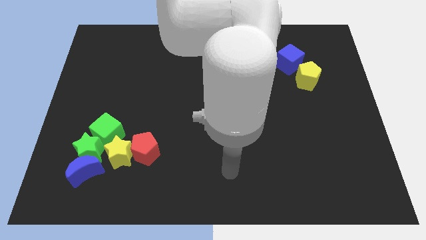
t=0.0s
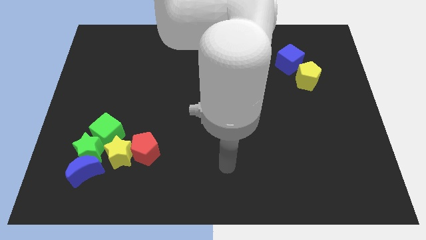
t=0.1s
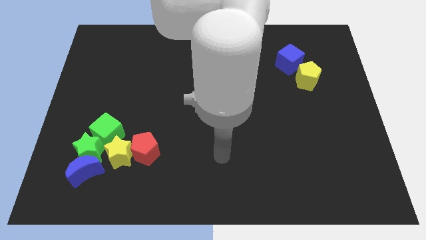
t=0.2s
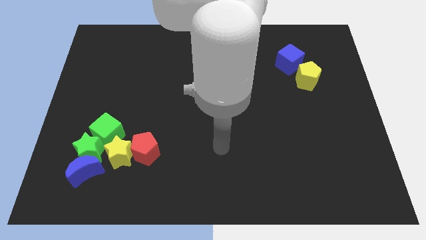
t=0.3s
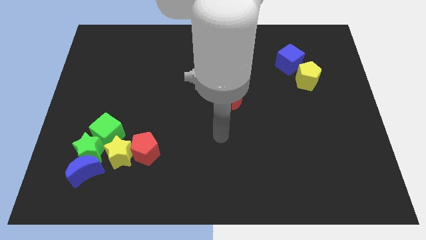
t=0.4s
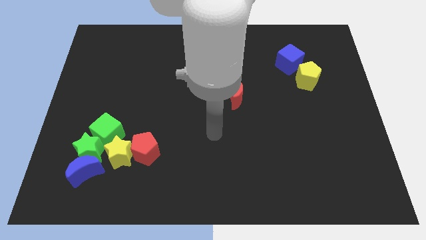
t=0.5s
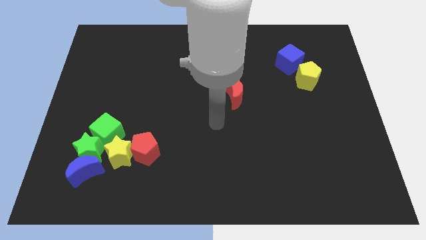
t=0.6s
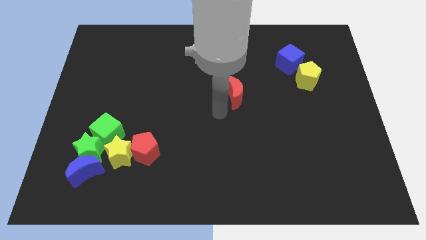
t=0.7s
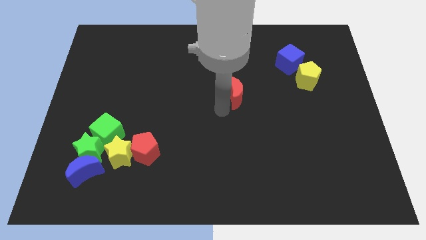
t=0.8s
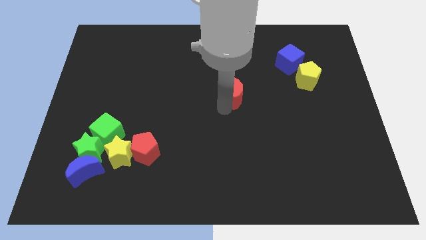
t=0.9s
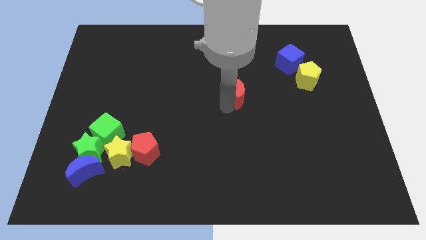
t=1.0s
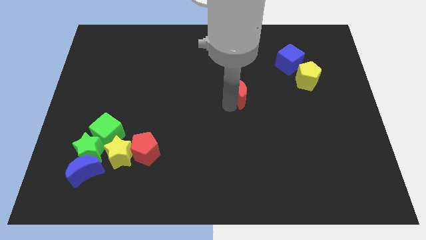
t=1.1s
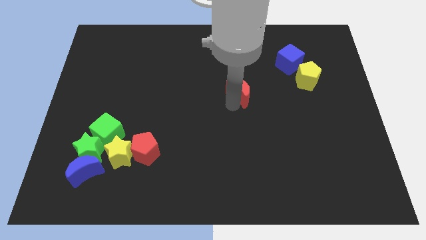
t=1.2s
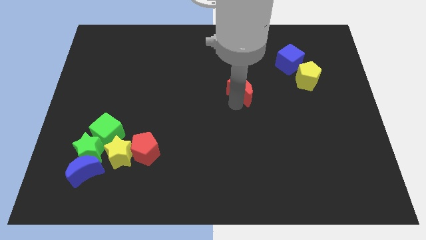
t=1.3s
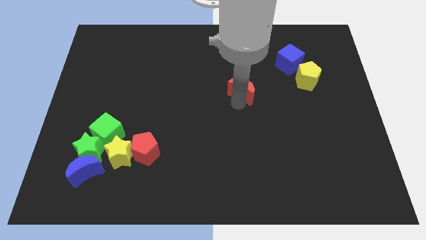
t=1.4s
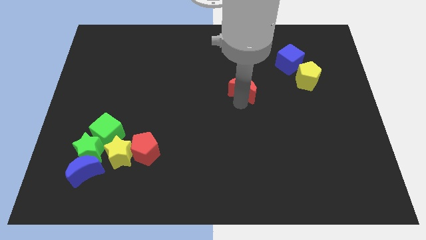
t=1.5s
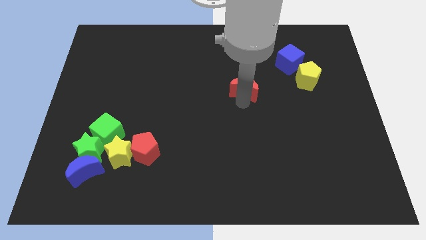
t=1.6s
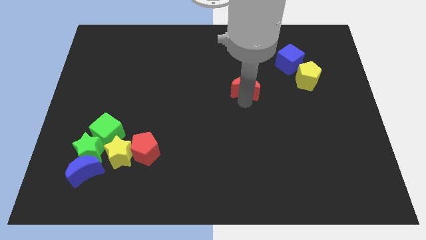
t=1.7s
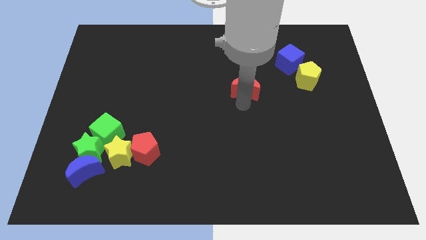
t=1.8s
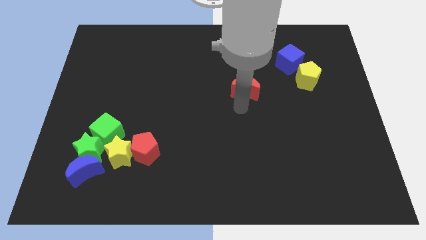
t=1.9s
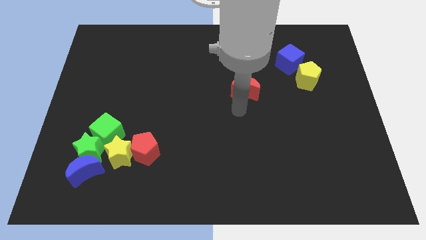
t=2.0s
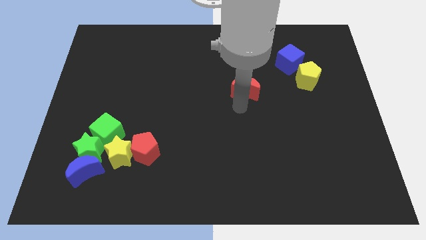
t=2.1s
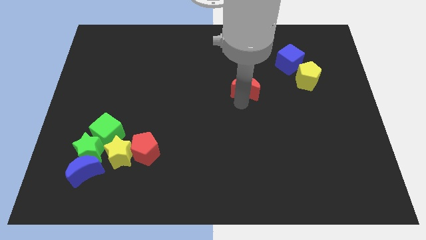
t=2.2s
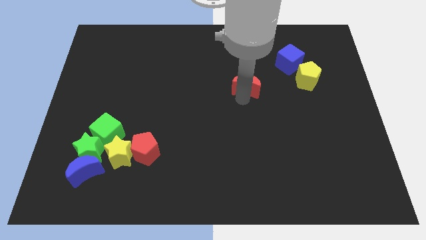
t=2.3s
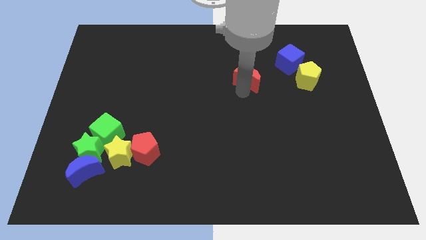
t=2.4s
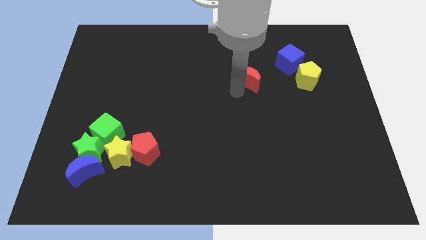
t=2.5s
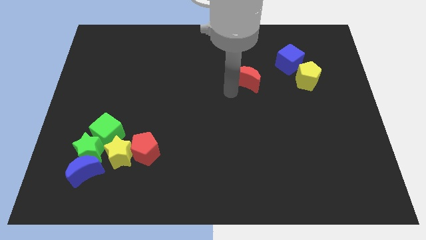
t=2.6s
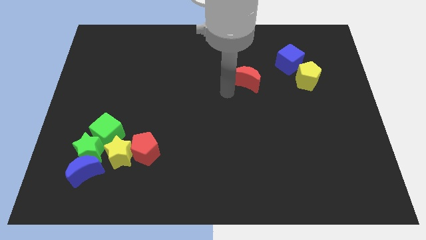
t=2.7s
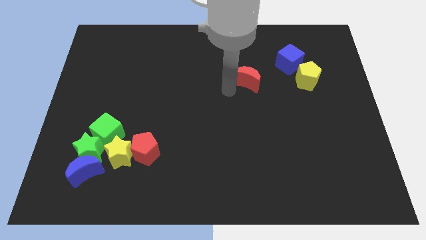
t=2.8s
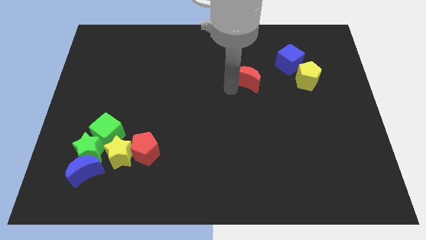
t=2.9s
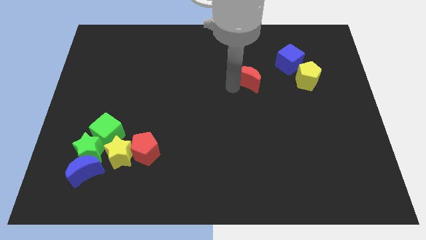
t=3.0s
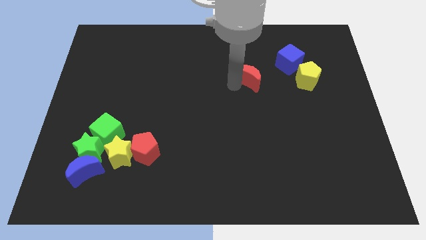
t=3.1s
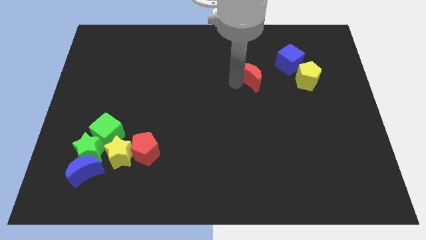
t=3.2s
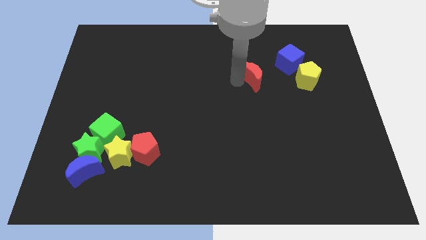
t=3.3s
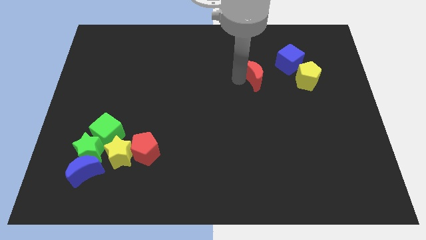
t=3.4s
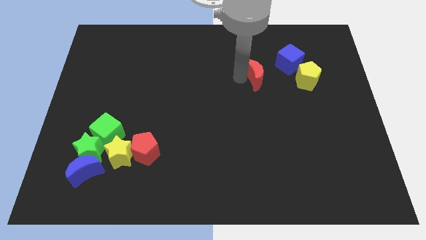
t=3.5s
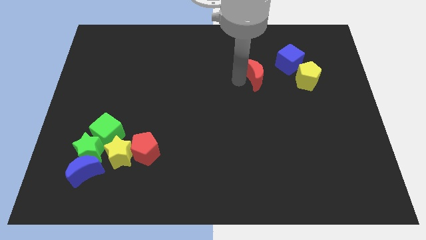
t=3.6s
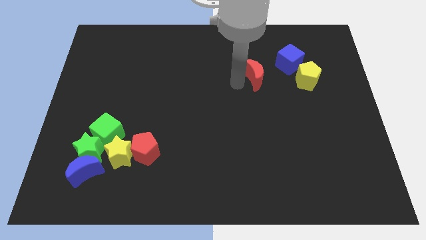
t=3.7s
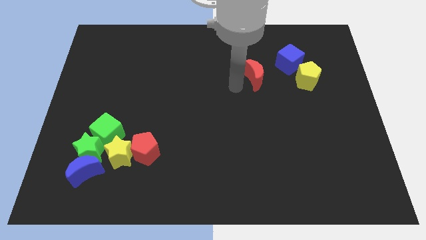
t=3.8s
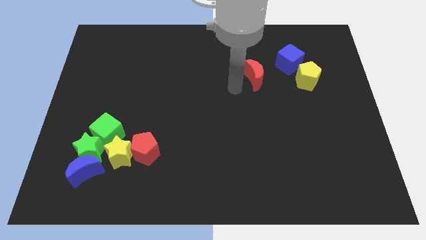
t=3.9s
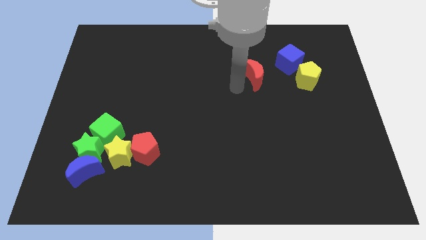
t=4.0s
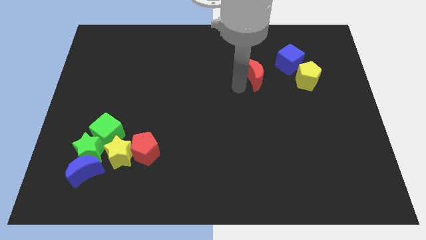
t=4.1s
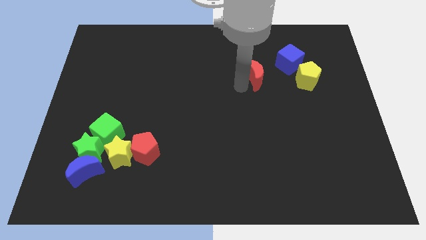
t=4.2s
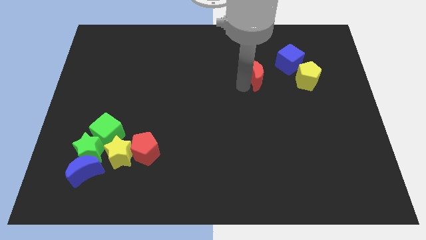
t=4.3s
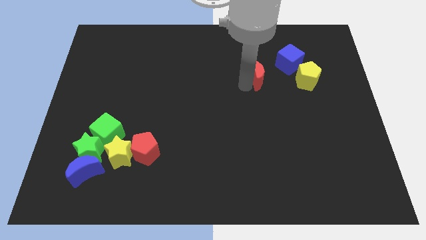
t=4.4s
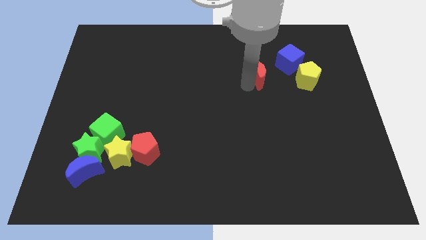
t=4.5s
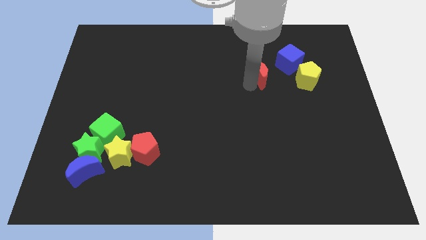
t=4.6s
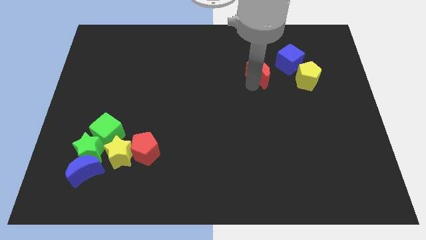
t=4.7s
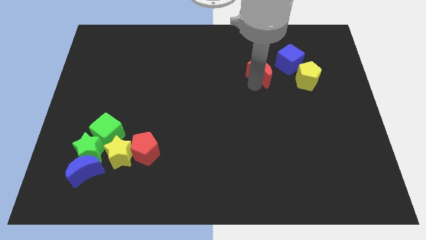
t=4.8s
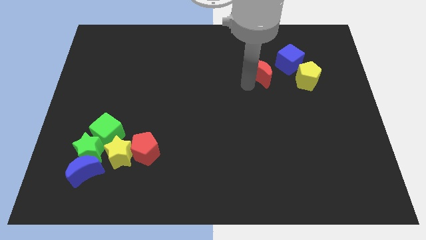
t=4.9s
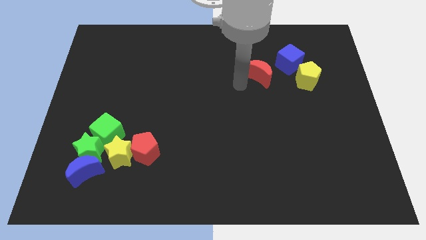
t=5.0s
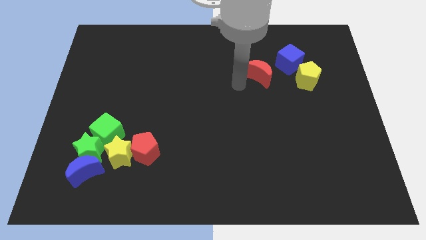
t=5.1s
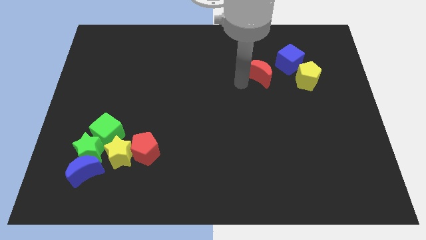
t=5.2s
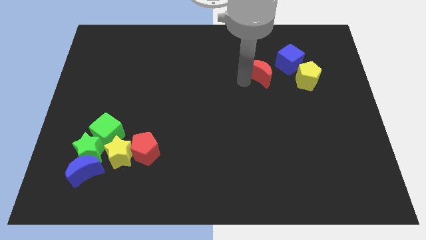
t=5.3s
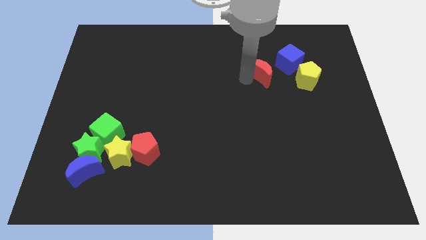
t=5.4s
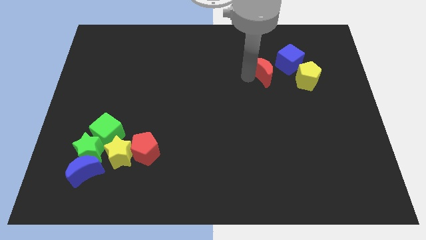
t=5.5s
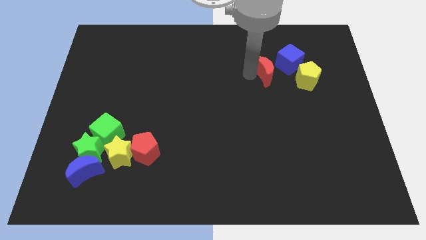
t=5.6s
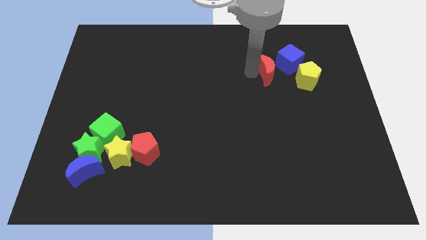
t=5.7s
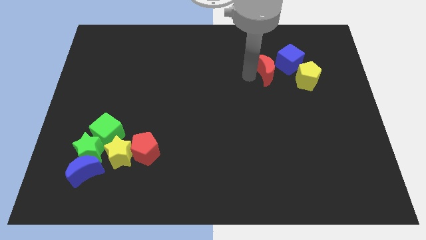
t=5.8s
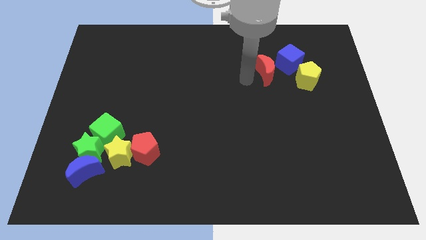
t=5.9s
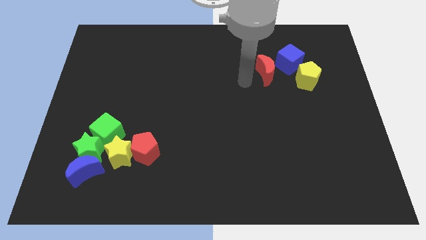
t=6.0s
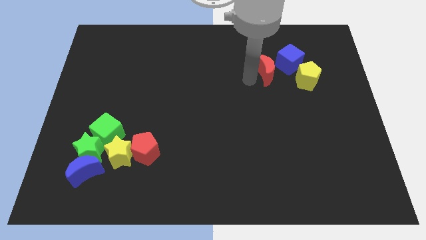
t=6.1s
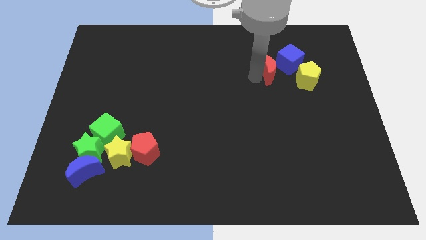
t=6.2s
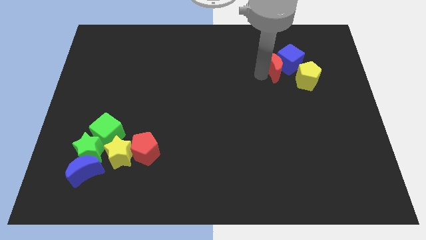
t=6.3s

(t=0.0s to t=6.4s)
move the red moon to the blue cube

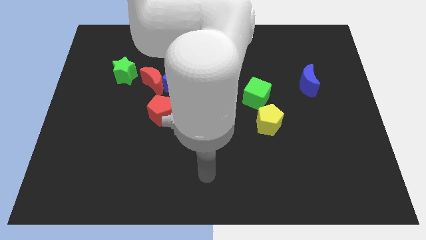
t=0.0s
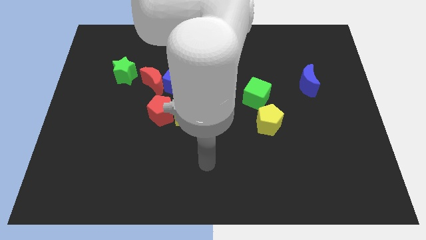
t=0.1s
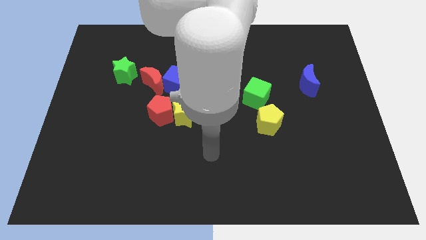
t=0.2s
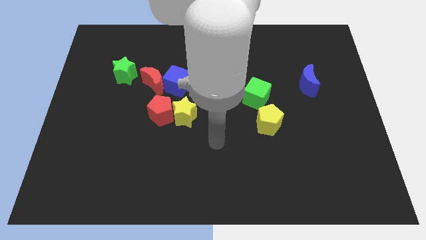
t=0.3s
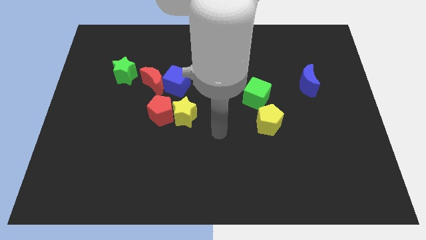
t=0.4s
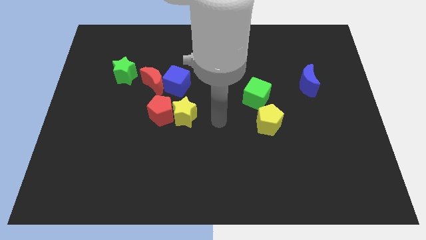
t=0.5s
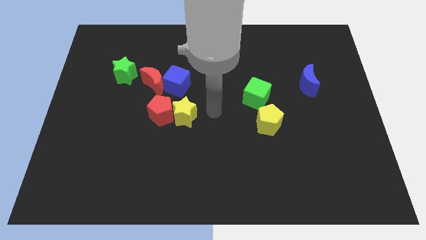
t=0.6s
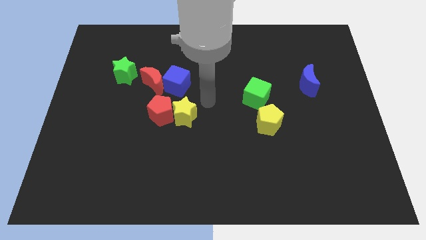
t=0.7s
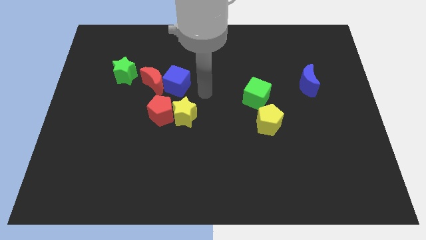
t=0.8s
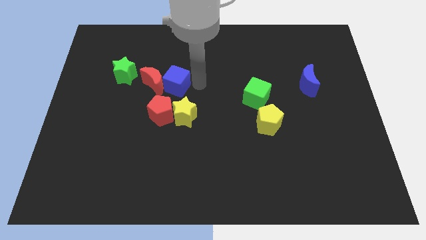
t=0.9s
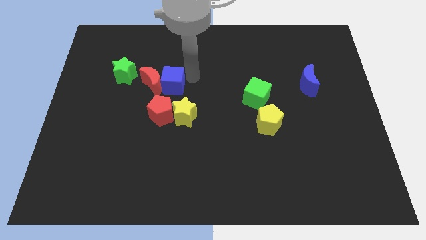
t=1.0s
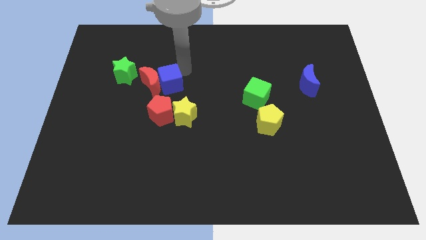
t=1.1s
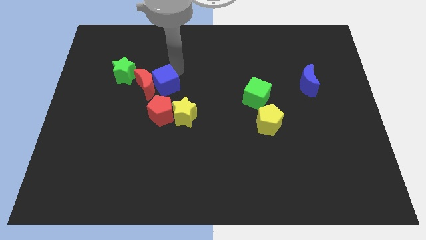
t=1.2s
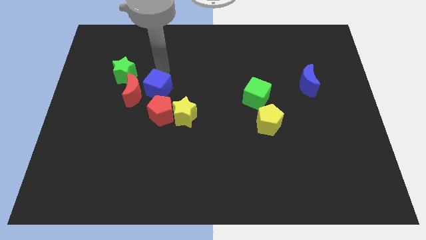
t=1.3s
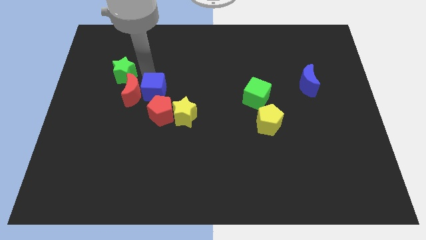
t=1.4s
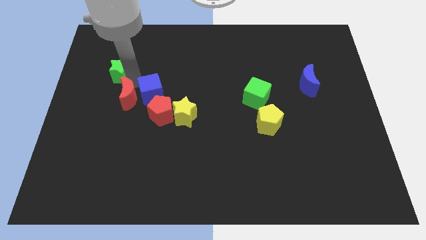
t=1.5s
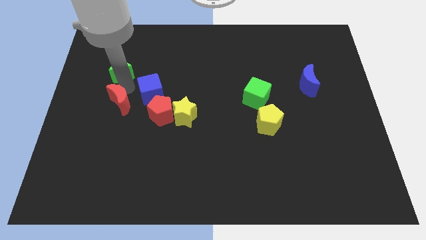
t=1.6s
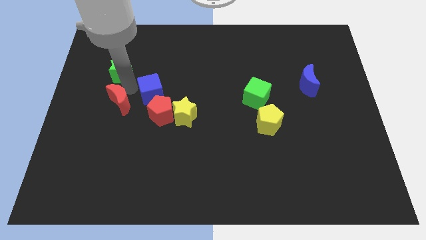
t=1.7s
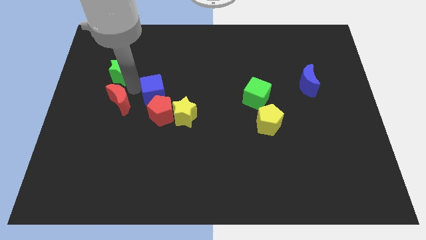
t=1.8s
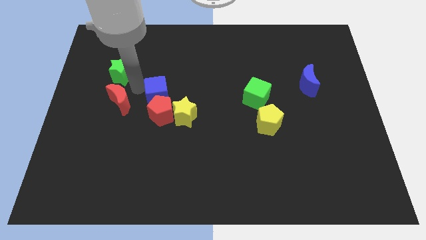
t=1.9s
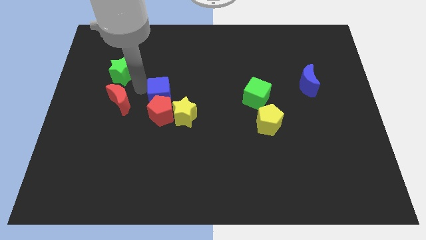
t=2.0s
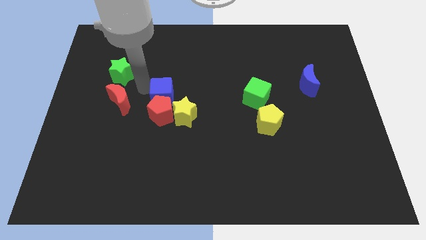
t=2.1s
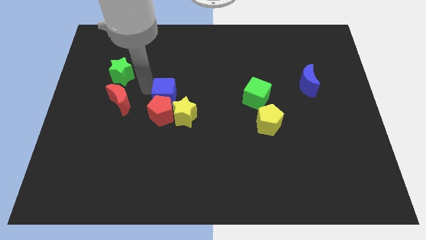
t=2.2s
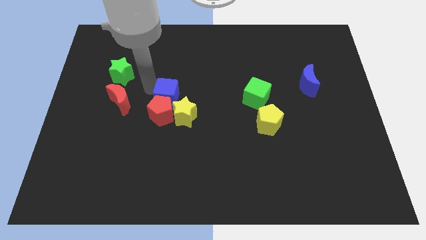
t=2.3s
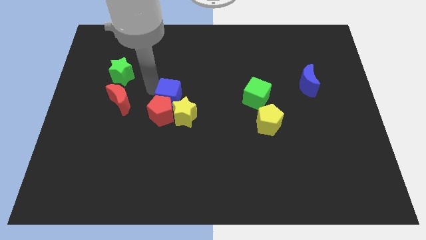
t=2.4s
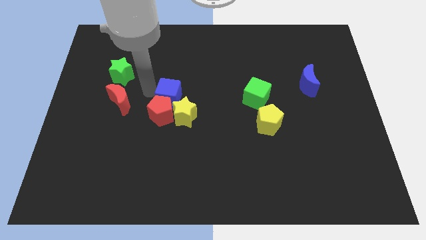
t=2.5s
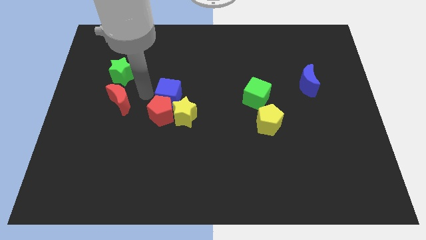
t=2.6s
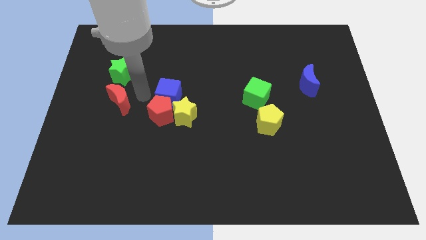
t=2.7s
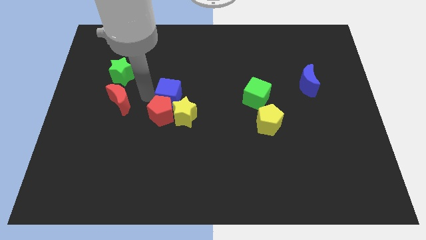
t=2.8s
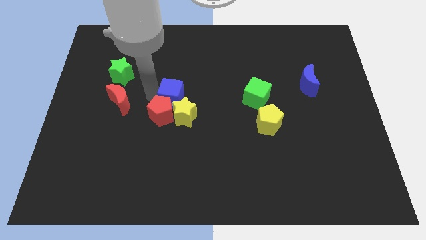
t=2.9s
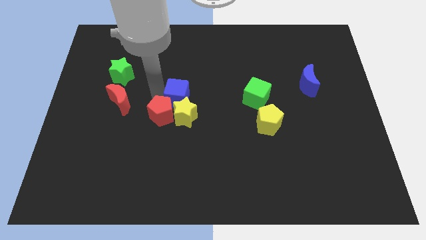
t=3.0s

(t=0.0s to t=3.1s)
slide the blue cube to the yellow star
